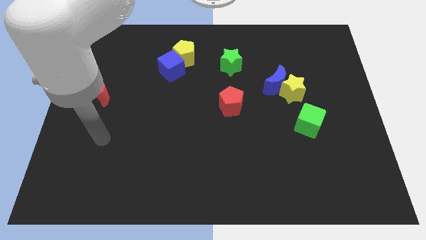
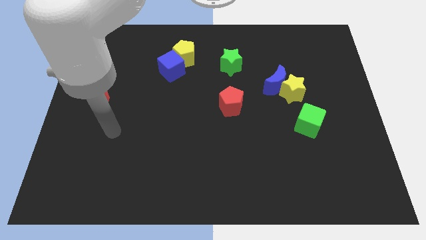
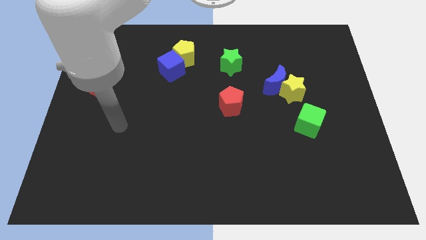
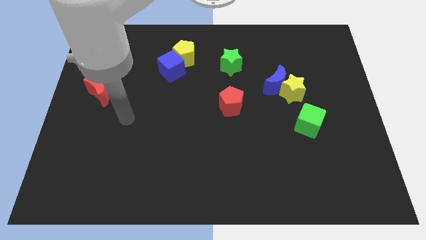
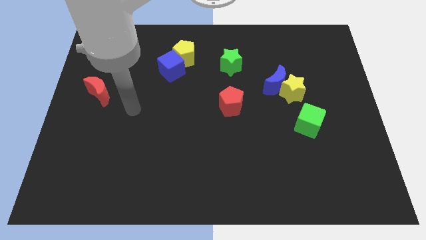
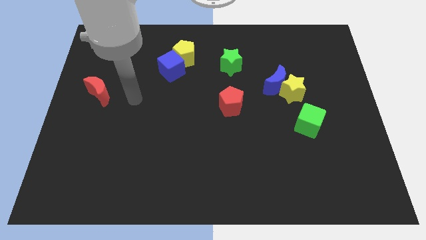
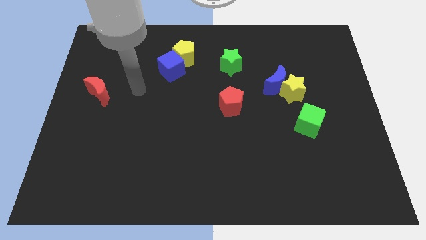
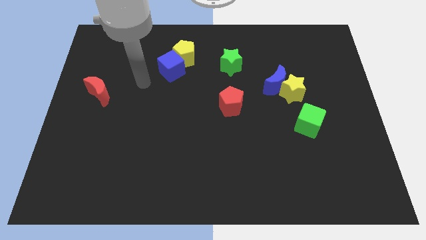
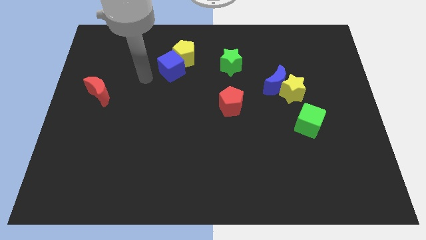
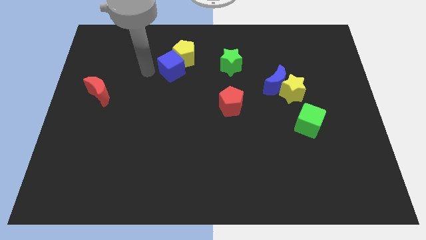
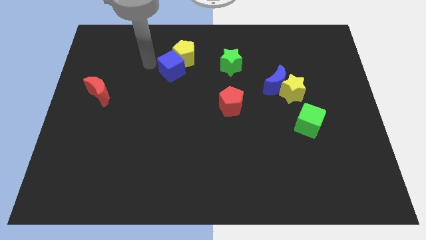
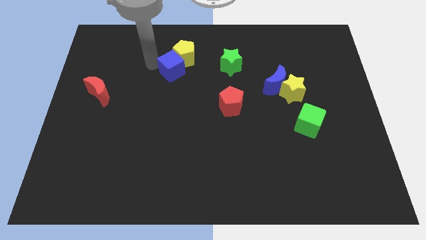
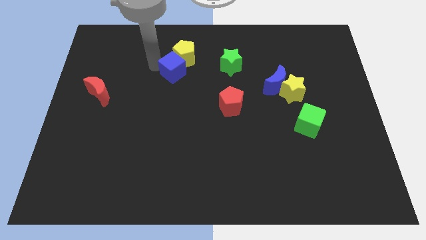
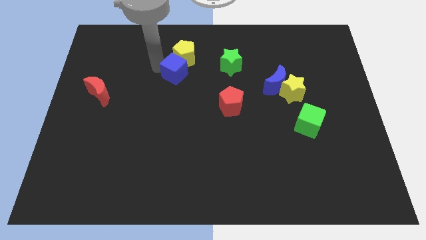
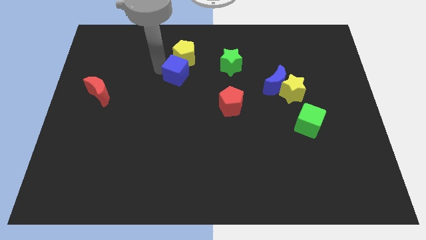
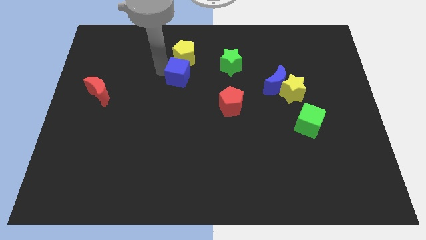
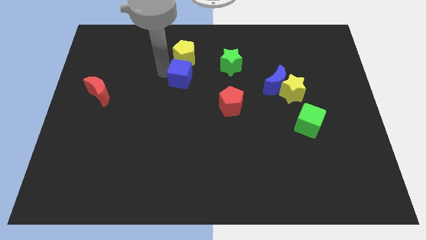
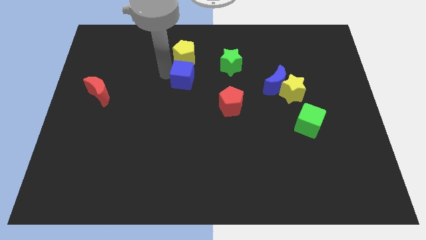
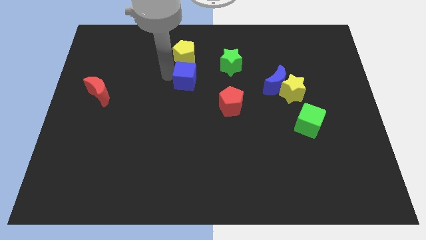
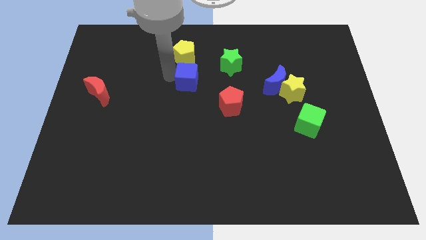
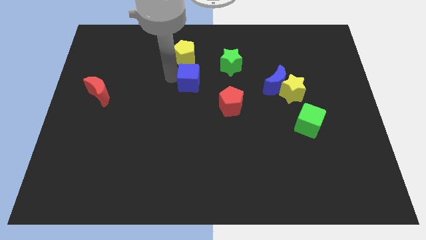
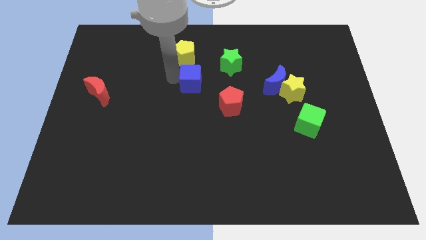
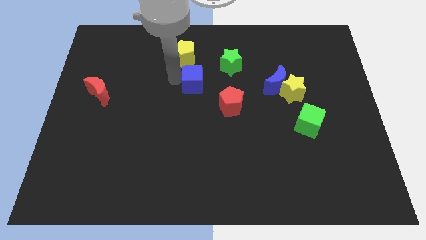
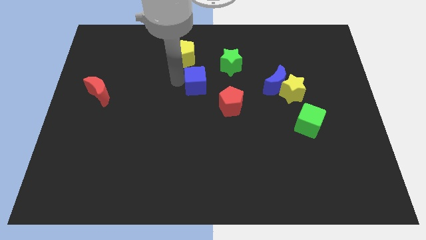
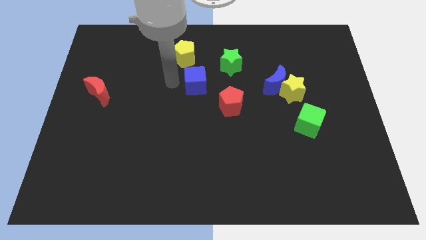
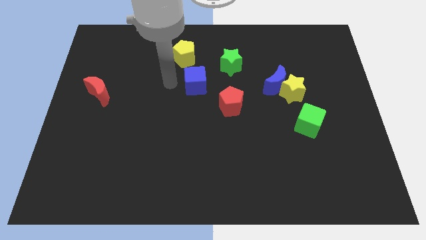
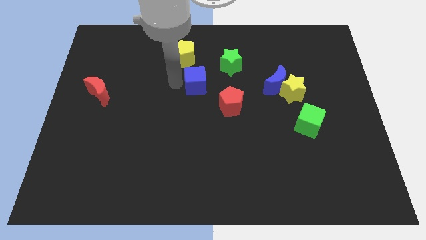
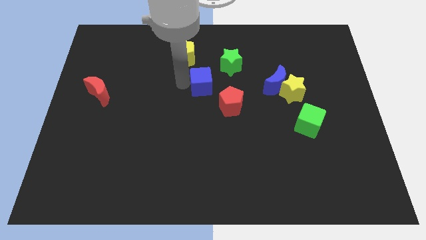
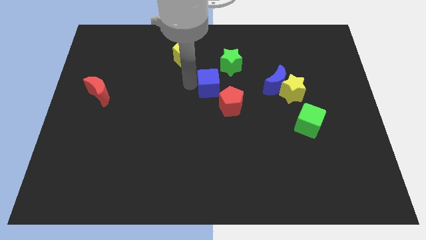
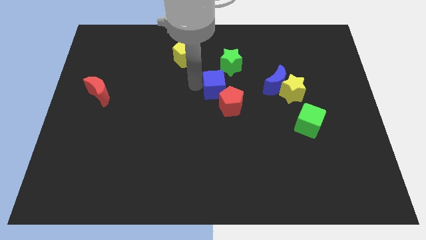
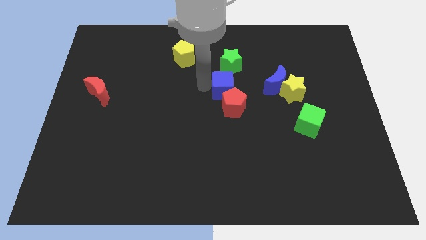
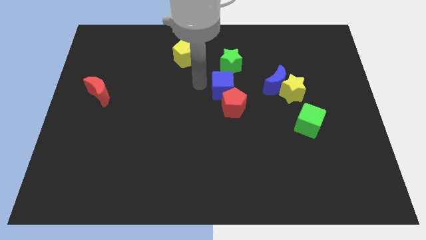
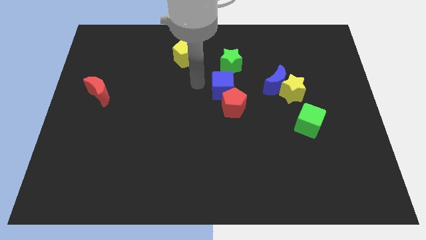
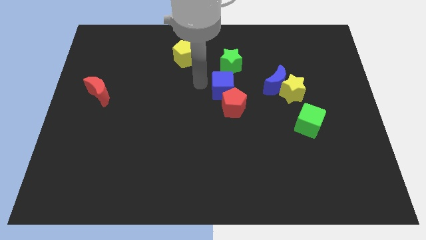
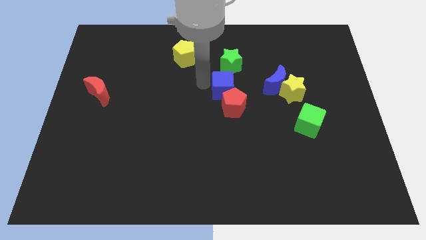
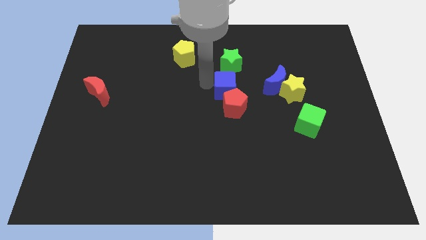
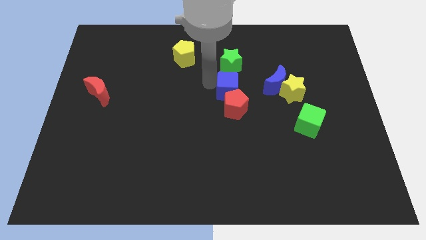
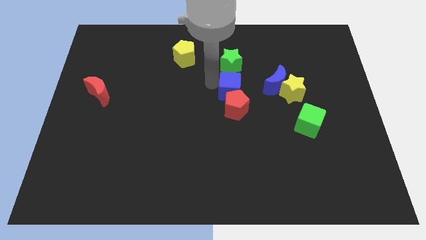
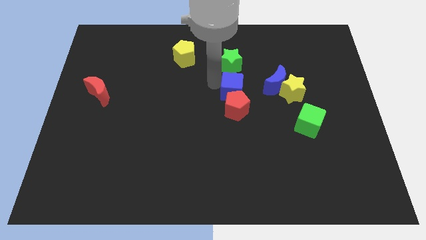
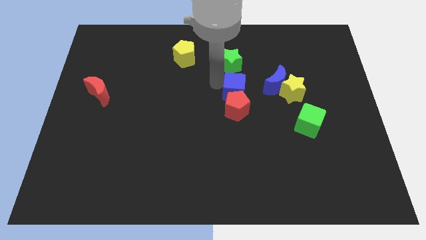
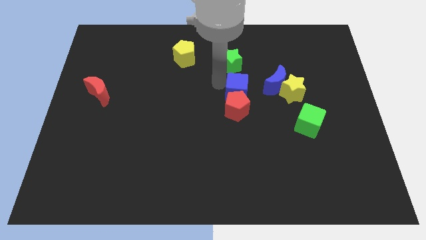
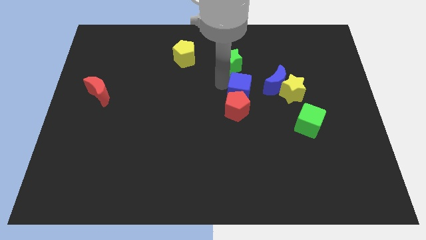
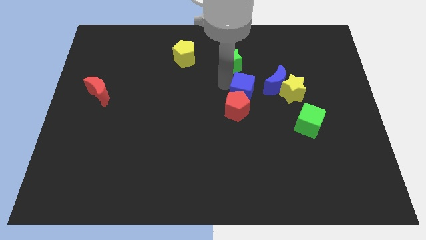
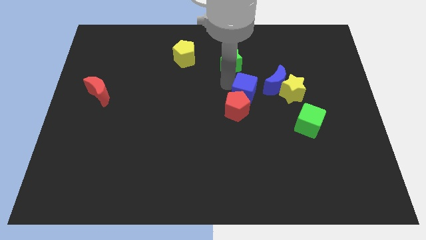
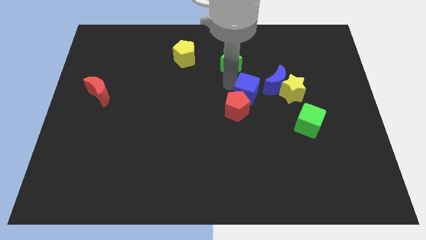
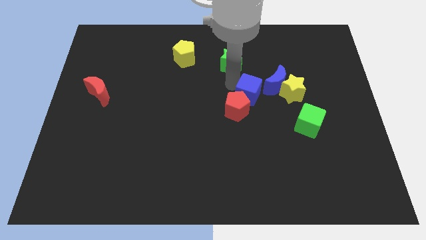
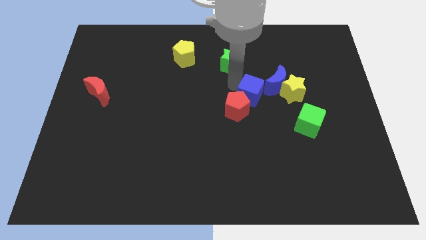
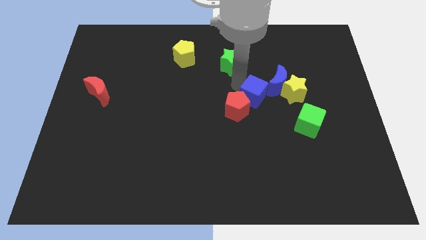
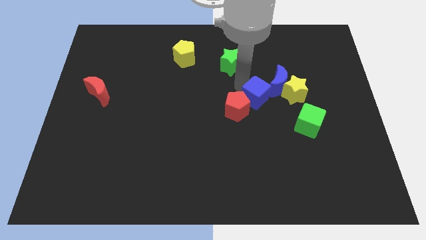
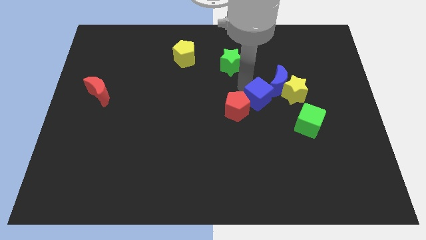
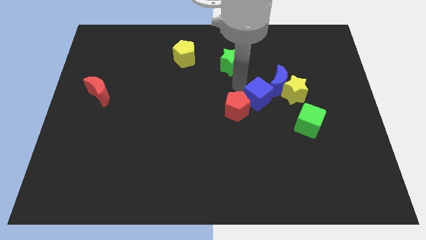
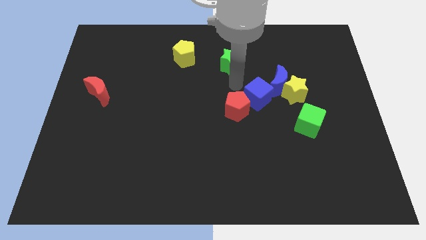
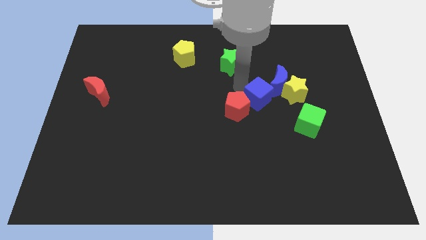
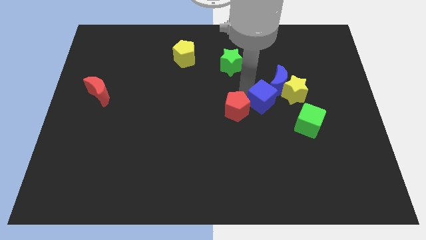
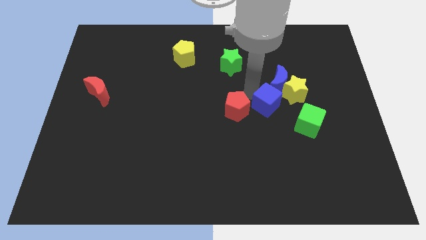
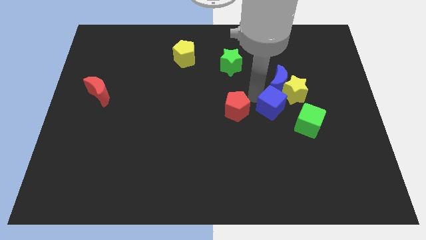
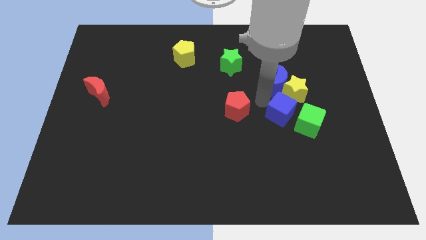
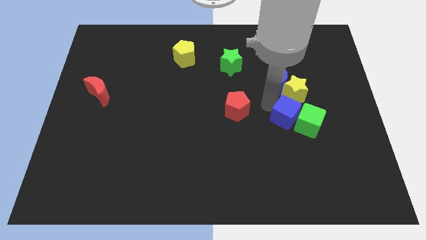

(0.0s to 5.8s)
push the blue cube to the green cube

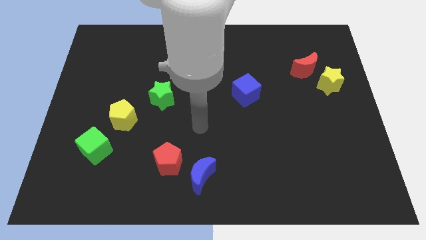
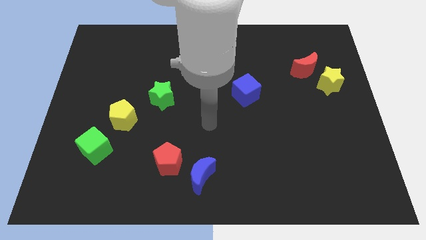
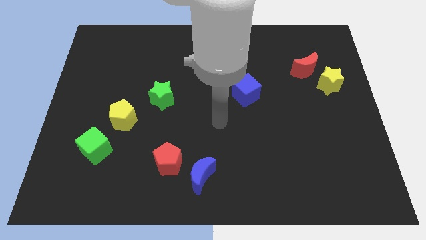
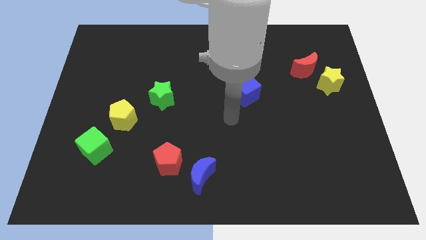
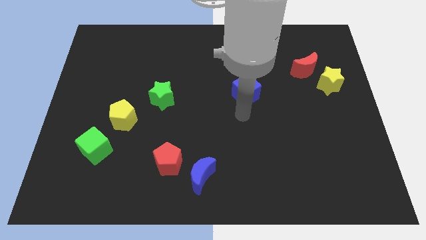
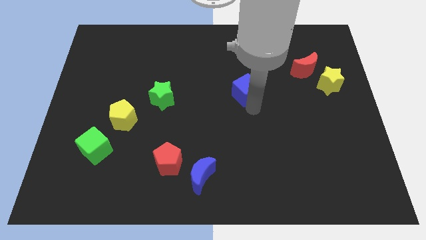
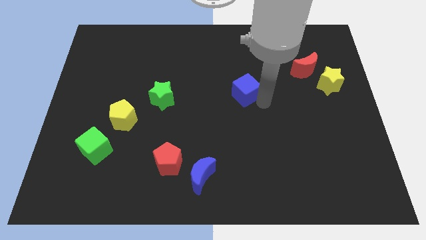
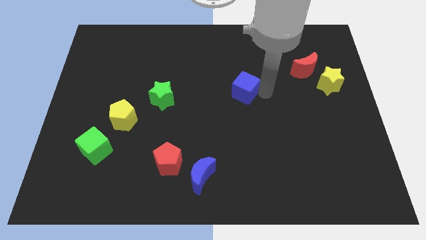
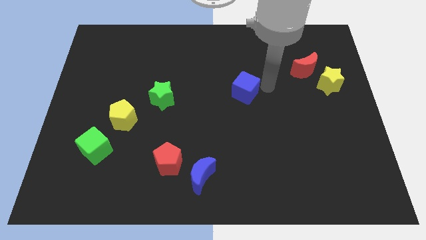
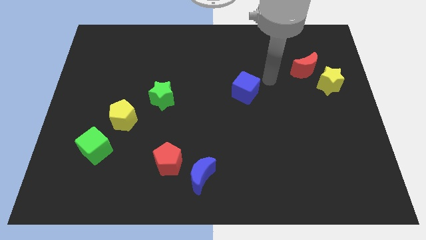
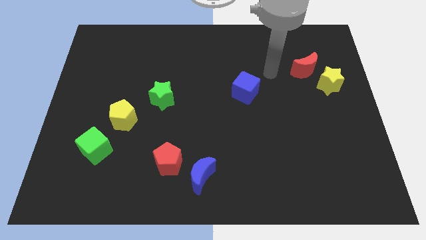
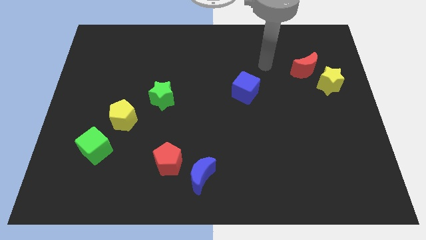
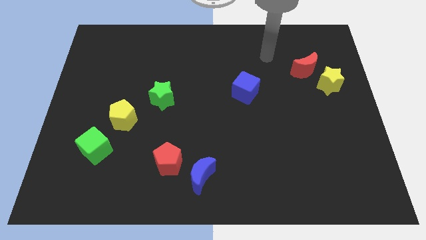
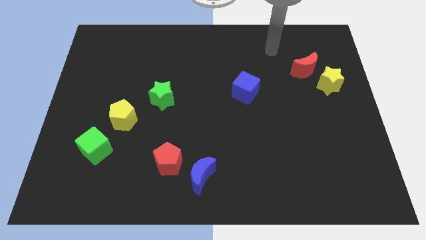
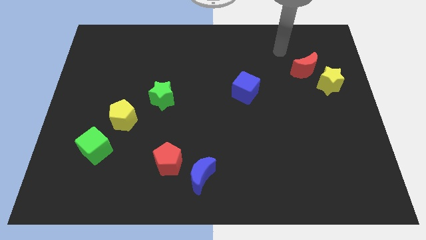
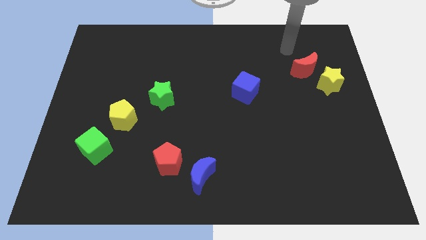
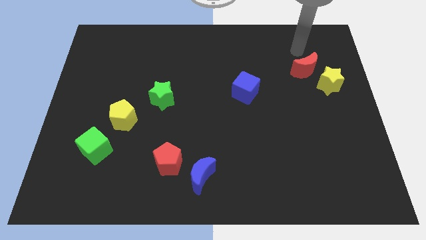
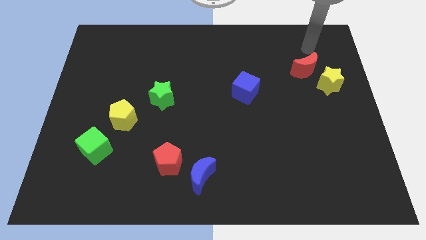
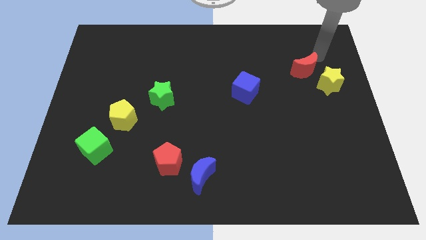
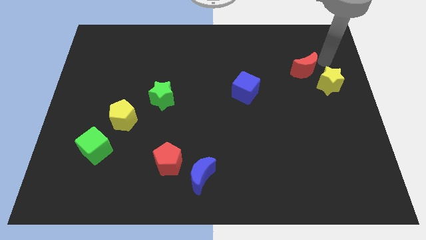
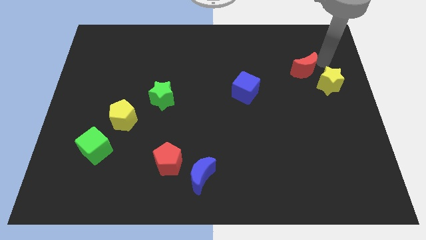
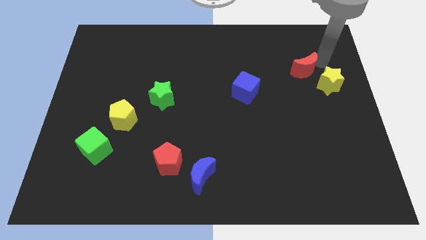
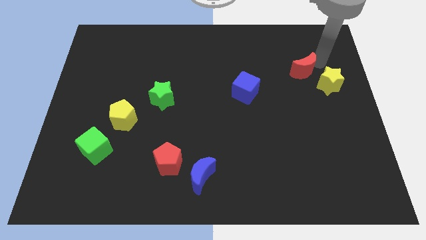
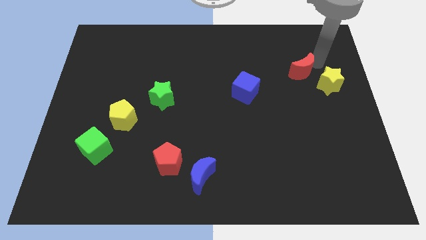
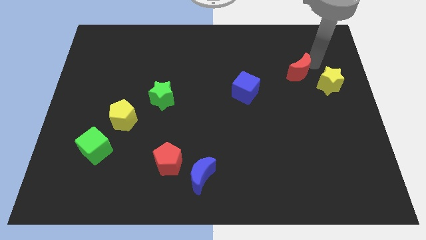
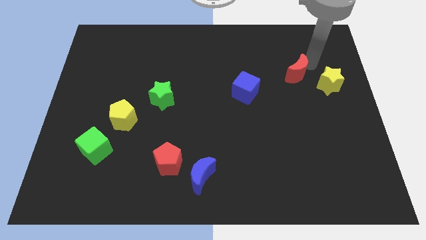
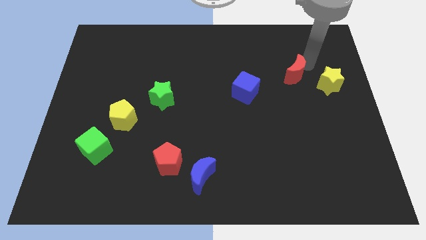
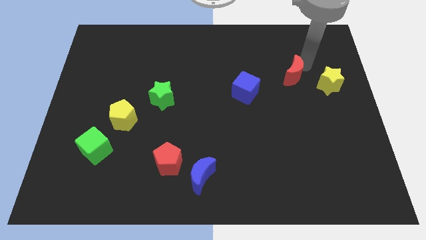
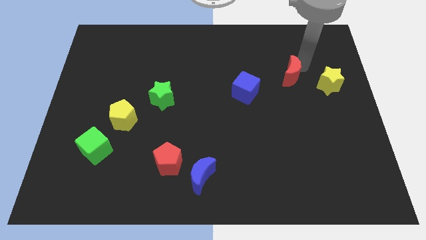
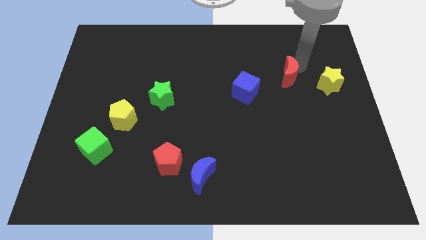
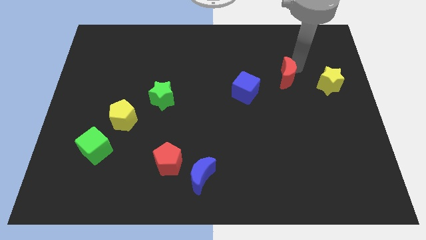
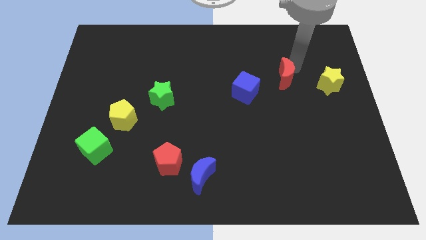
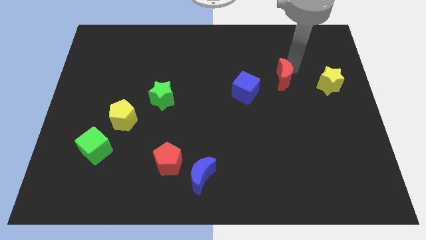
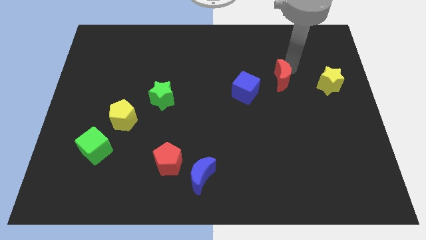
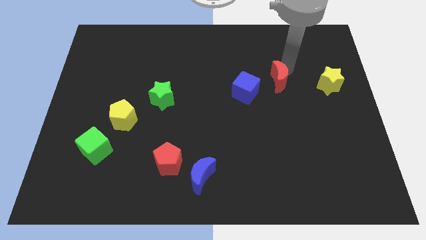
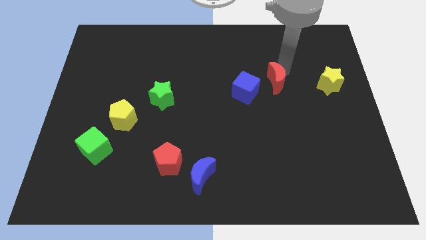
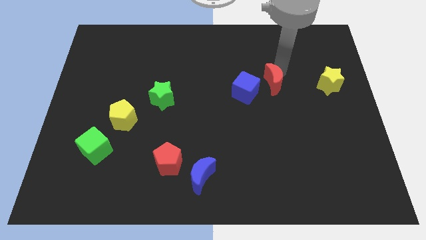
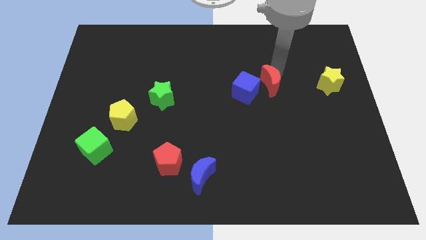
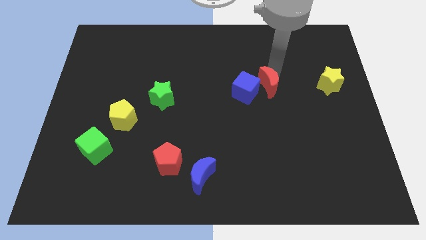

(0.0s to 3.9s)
slide the red moon to the blue cube
